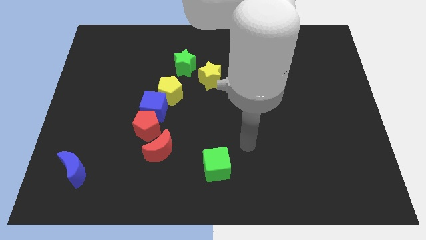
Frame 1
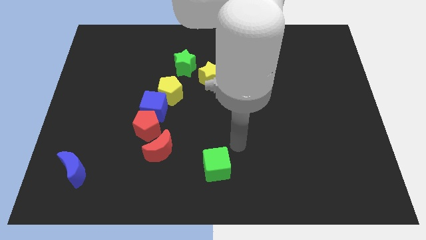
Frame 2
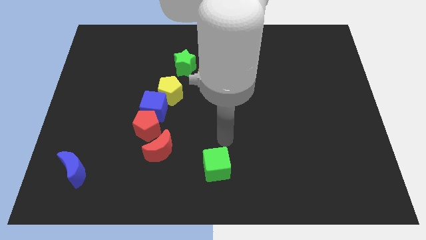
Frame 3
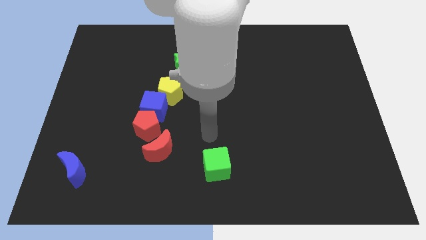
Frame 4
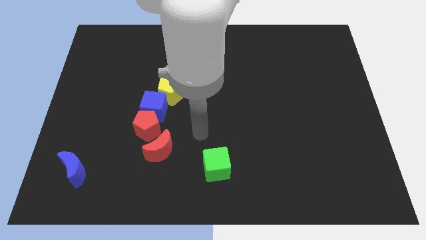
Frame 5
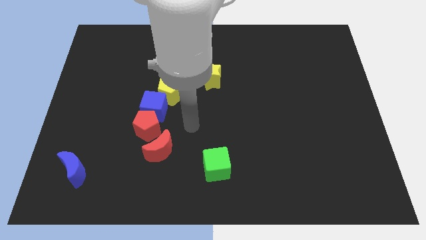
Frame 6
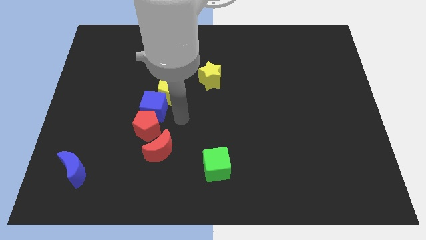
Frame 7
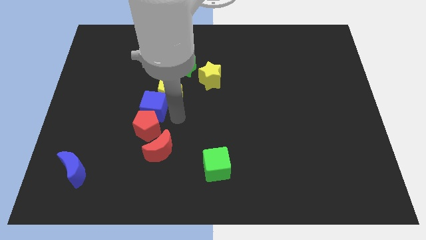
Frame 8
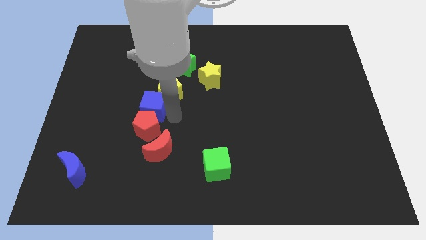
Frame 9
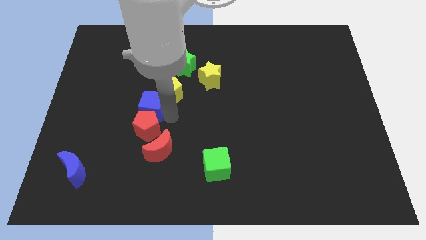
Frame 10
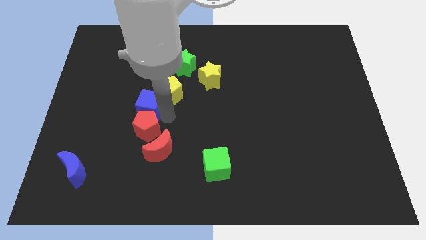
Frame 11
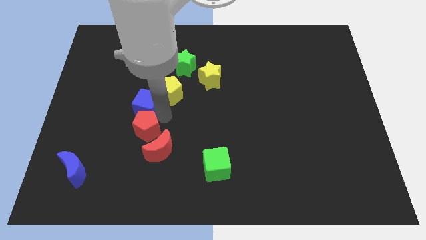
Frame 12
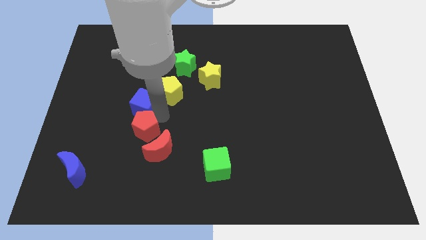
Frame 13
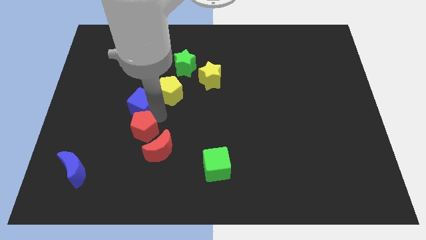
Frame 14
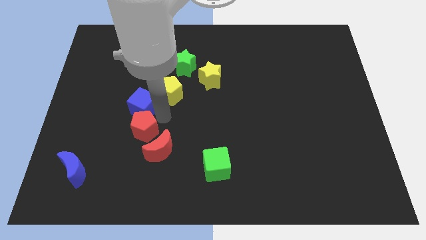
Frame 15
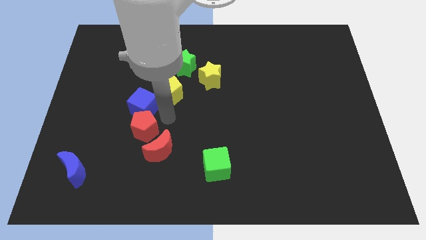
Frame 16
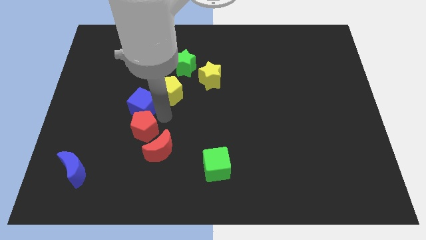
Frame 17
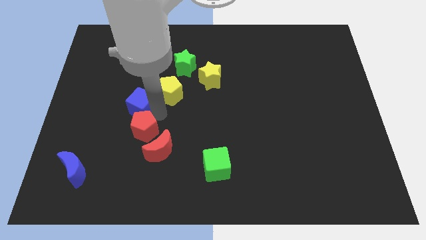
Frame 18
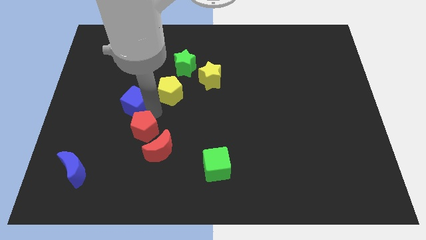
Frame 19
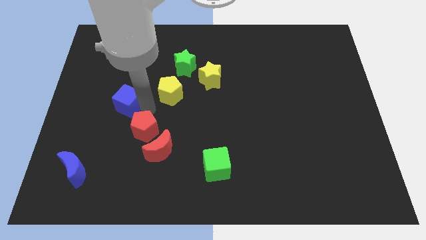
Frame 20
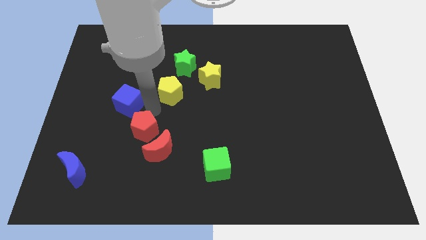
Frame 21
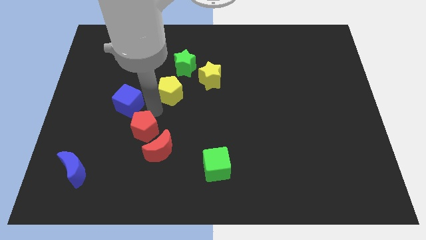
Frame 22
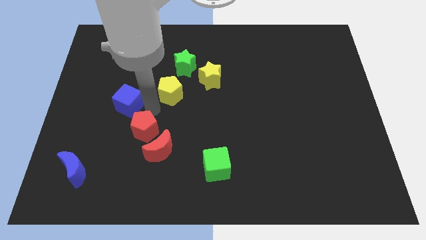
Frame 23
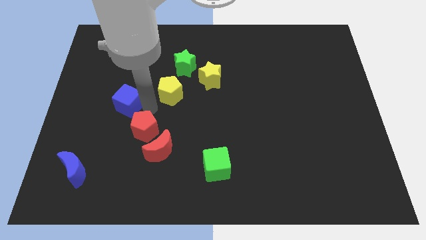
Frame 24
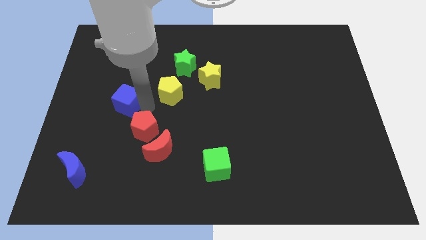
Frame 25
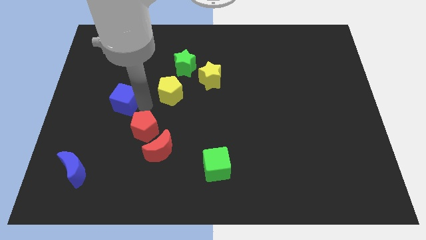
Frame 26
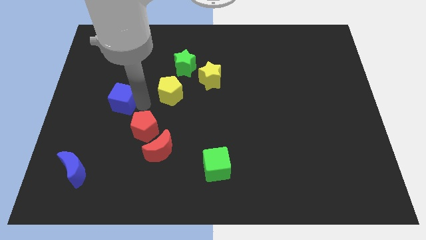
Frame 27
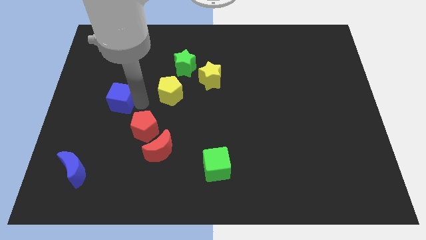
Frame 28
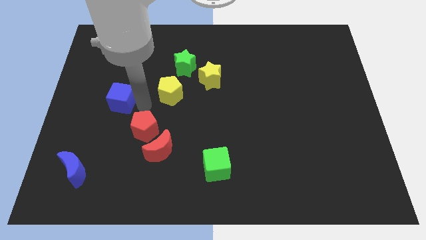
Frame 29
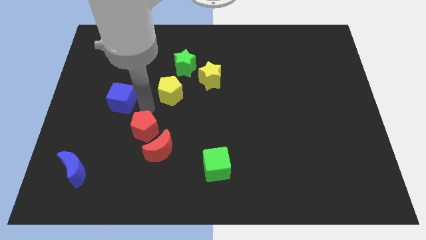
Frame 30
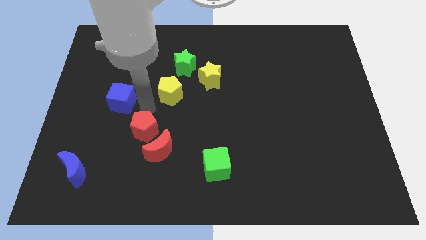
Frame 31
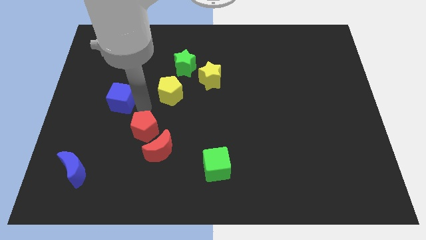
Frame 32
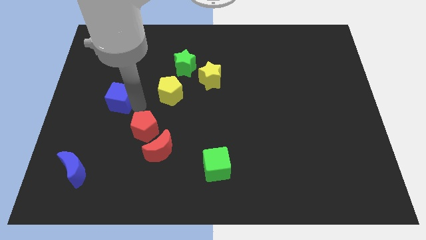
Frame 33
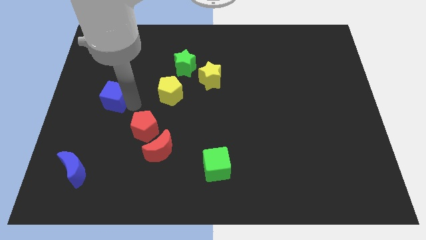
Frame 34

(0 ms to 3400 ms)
move the blue cube away from the red pentagon and yellow pentagon

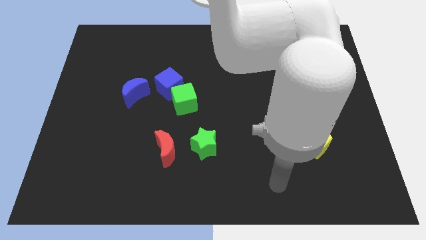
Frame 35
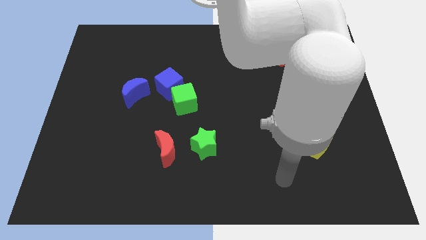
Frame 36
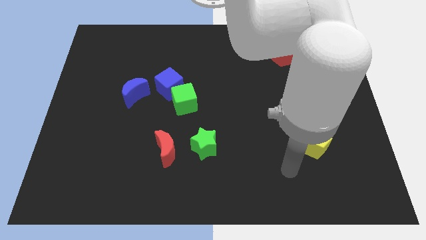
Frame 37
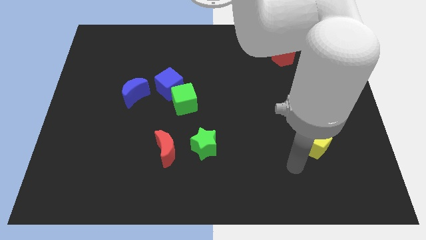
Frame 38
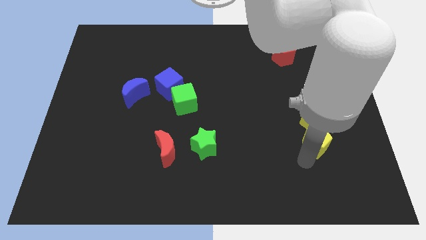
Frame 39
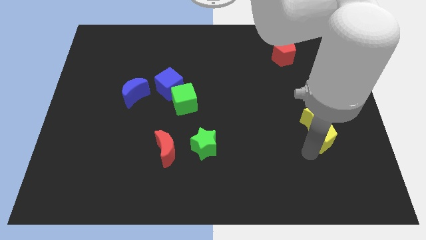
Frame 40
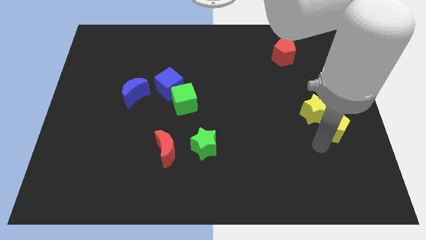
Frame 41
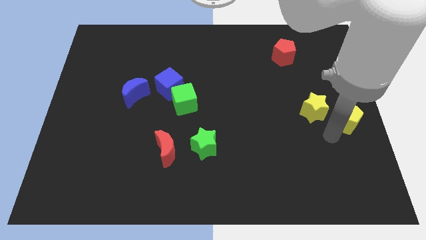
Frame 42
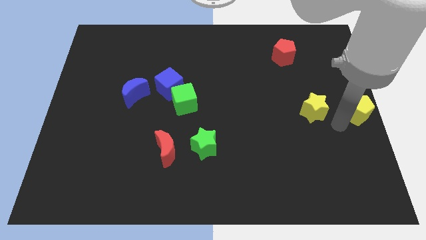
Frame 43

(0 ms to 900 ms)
move the yellow star away from the yellow pentagon

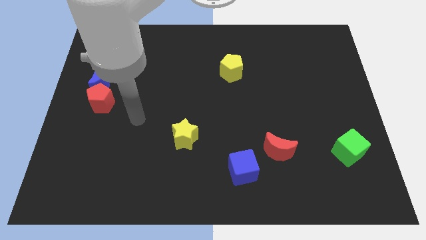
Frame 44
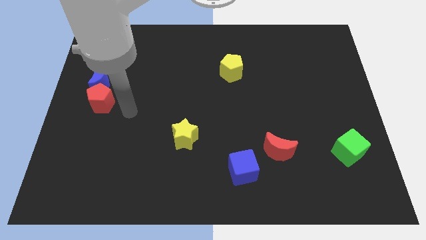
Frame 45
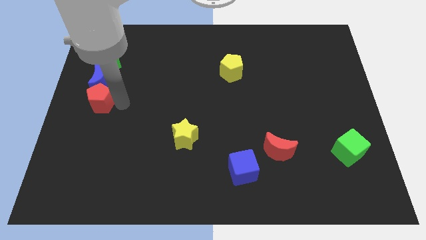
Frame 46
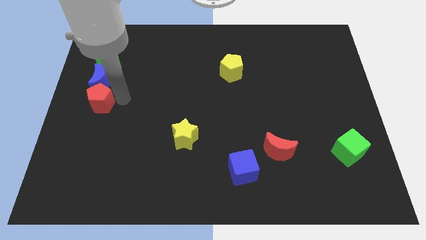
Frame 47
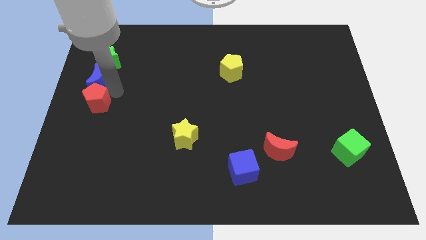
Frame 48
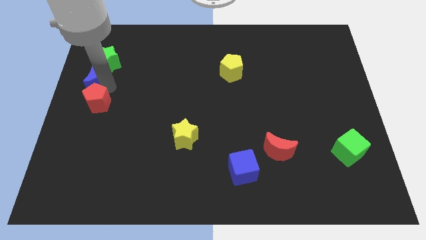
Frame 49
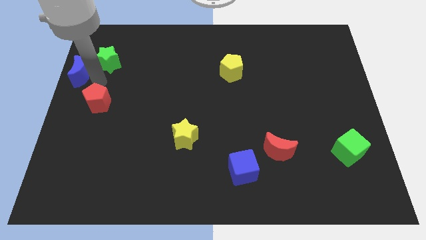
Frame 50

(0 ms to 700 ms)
separate the red pentagon from the blue moon

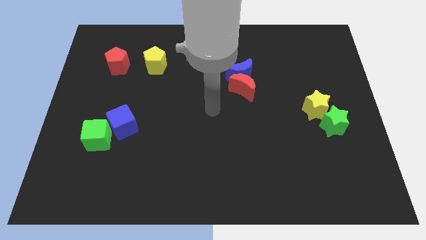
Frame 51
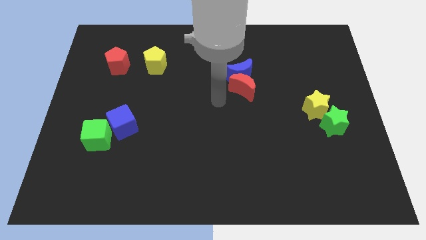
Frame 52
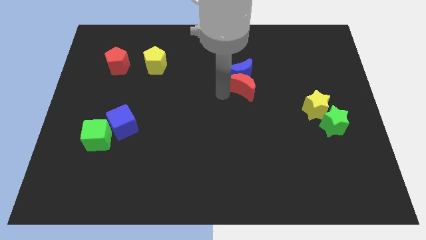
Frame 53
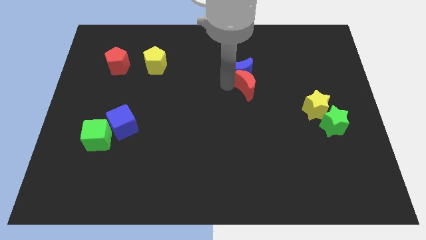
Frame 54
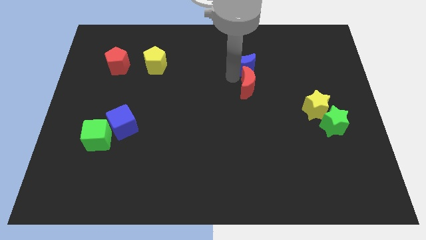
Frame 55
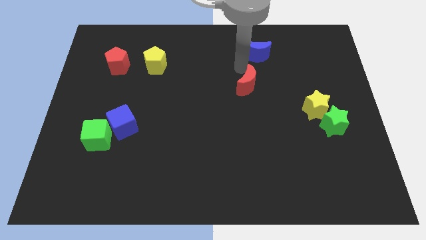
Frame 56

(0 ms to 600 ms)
move the red moon away from the blue moon

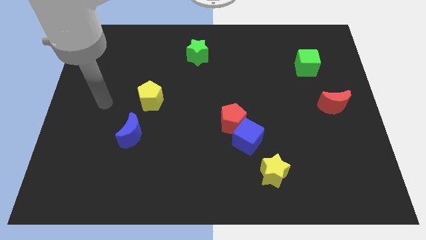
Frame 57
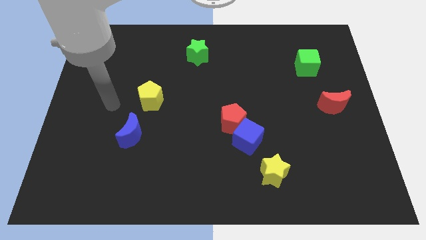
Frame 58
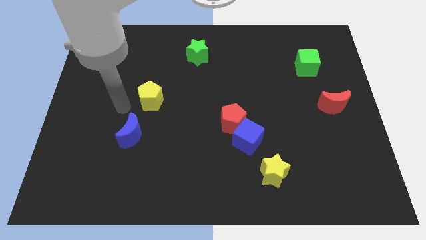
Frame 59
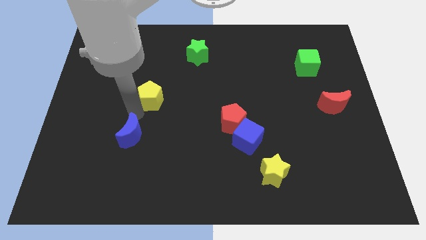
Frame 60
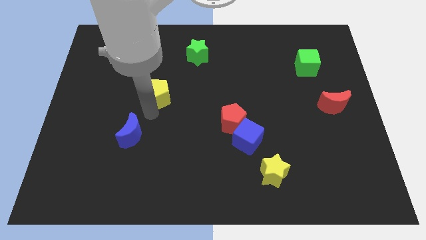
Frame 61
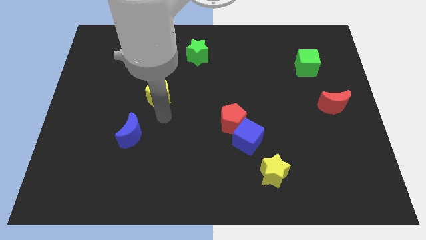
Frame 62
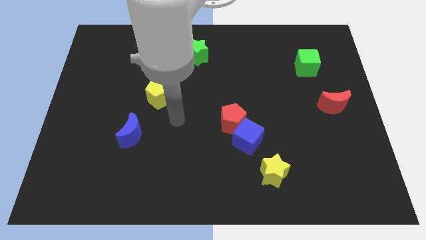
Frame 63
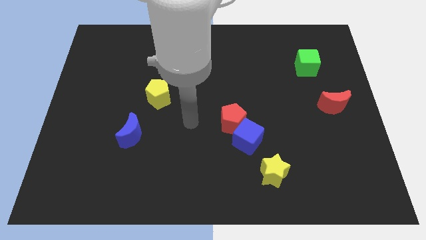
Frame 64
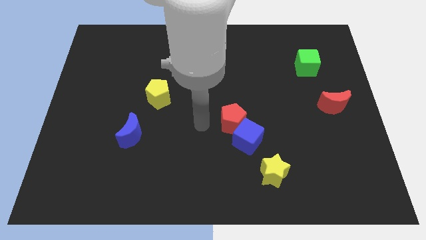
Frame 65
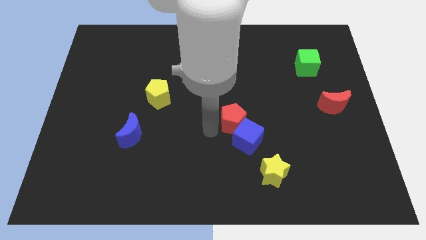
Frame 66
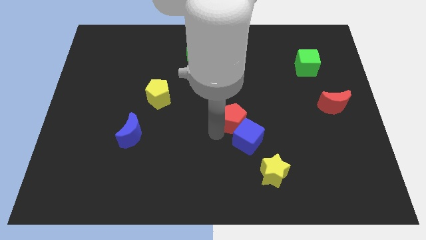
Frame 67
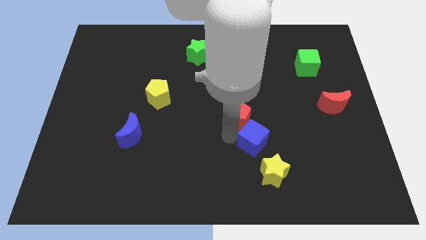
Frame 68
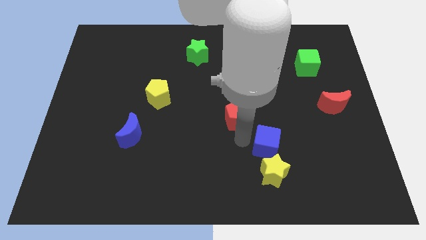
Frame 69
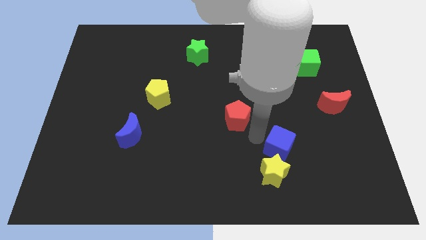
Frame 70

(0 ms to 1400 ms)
pull the red pentagon apart from the blue cube

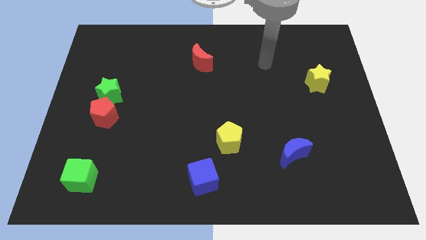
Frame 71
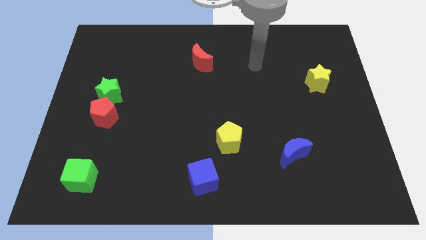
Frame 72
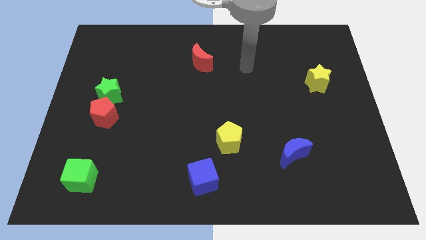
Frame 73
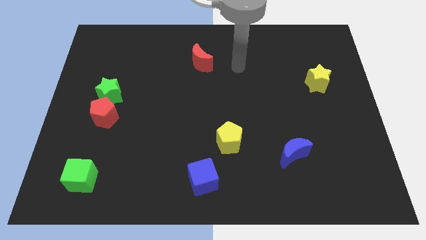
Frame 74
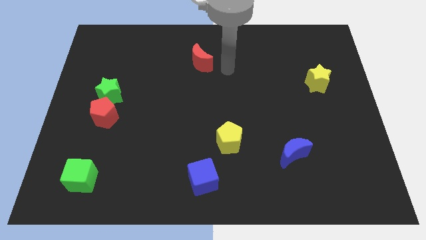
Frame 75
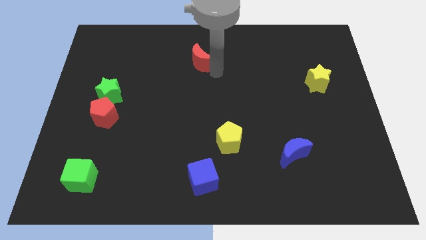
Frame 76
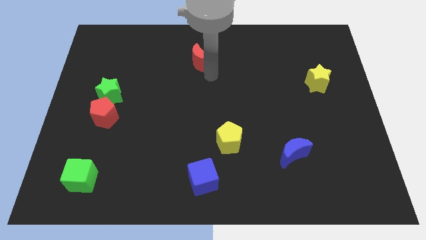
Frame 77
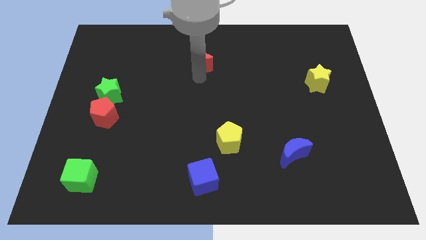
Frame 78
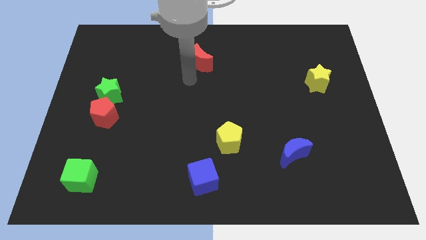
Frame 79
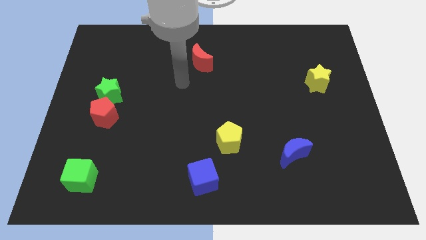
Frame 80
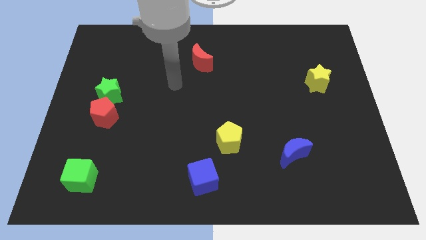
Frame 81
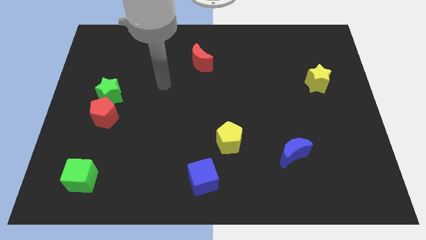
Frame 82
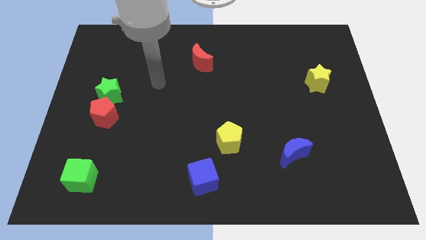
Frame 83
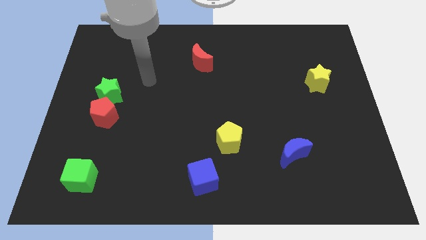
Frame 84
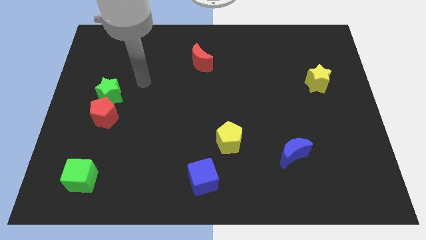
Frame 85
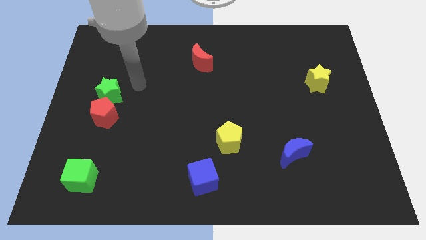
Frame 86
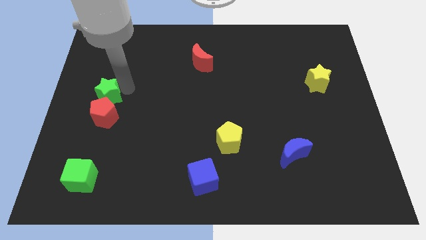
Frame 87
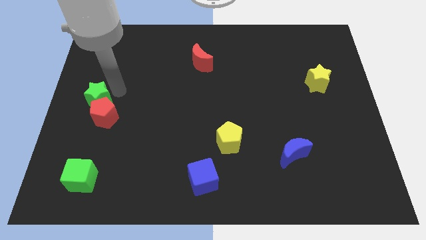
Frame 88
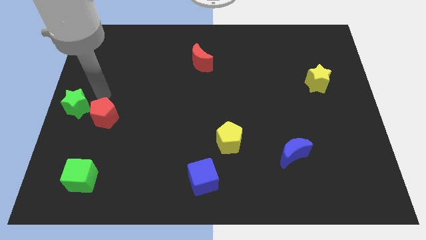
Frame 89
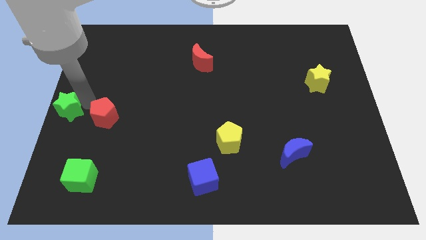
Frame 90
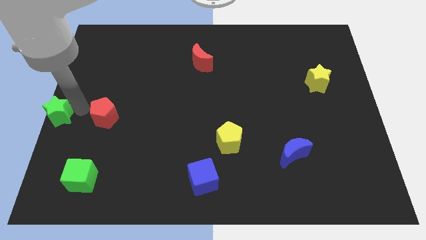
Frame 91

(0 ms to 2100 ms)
move the red pentagon away from the green star

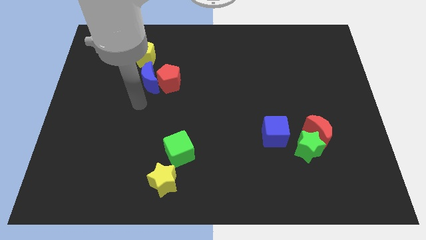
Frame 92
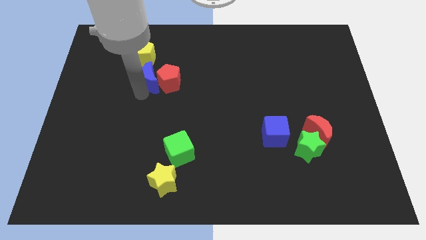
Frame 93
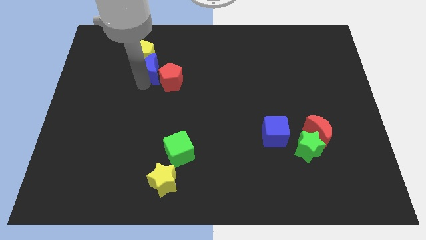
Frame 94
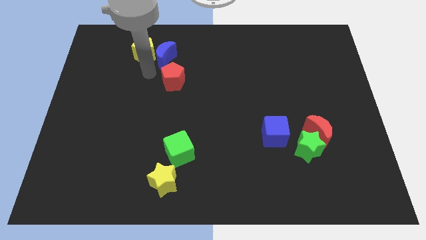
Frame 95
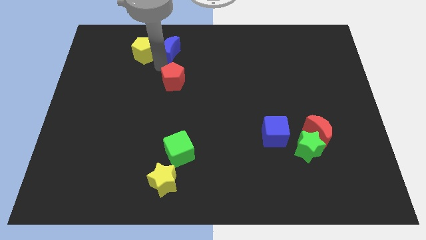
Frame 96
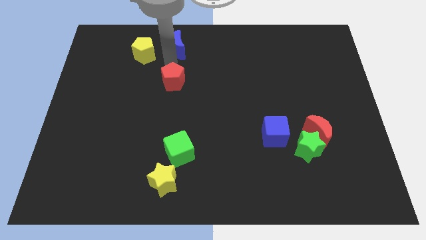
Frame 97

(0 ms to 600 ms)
pull the red pentagon apart from the blue moon
